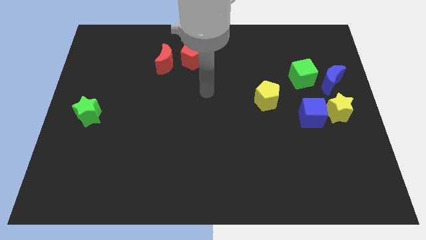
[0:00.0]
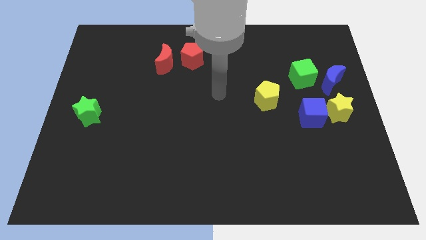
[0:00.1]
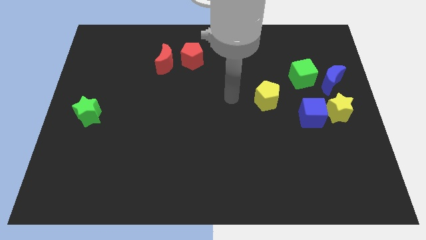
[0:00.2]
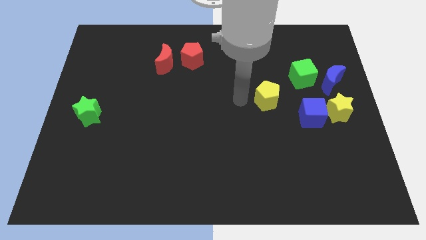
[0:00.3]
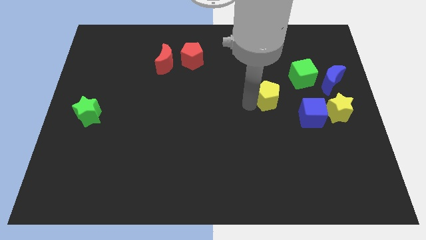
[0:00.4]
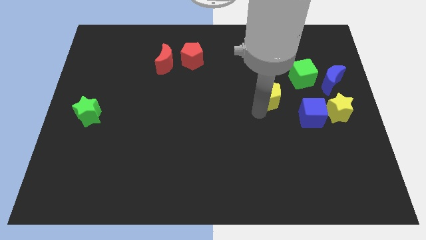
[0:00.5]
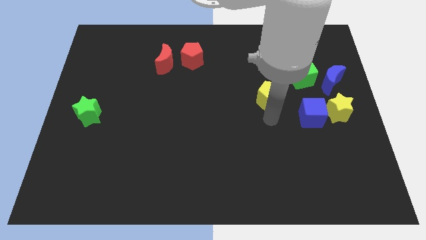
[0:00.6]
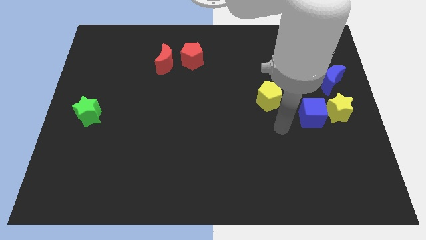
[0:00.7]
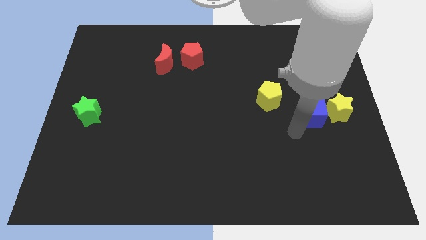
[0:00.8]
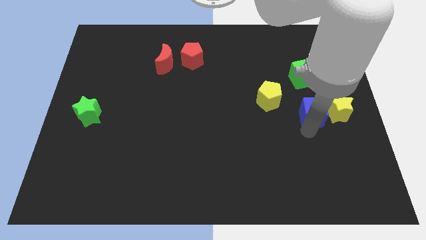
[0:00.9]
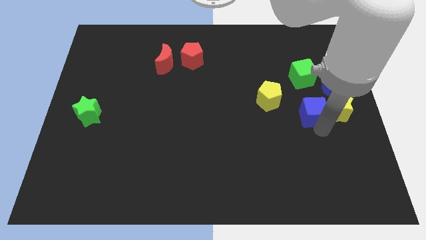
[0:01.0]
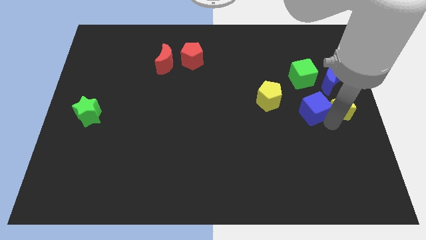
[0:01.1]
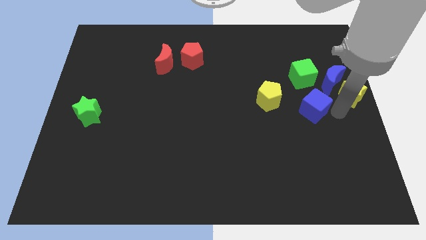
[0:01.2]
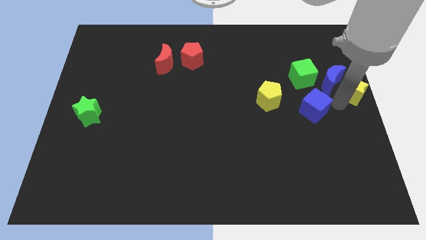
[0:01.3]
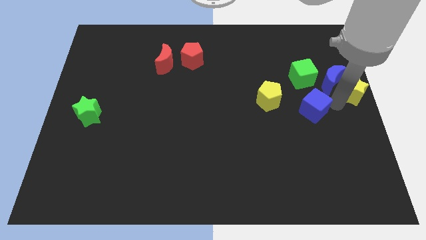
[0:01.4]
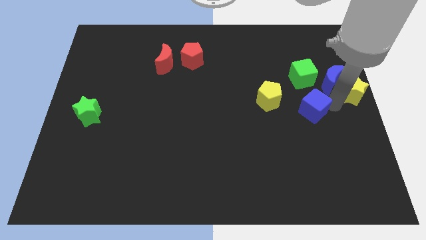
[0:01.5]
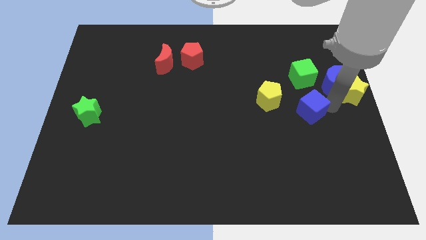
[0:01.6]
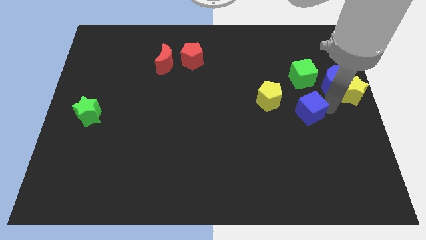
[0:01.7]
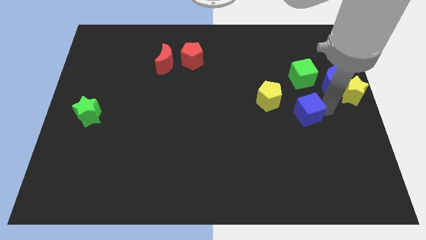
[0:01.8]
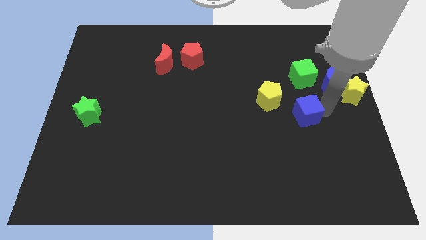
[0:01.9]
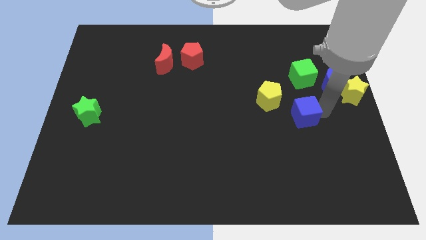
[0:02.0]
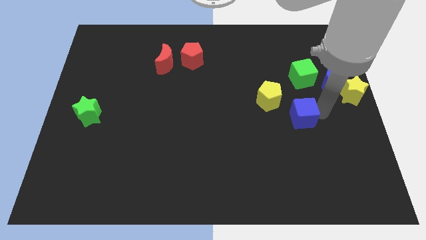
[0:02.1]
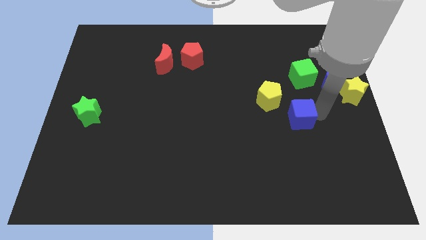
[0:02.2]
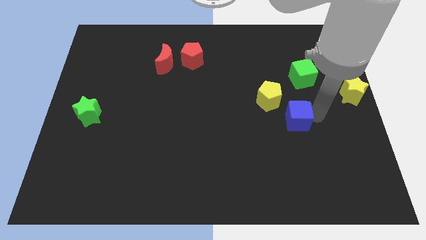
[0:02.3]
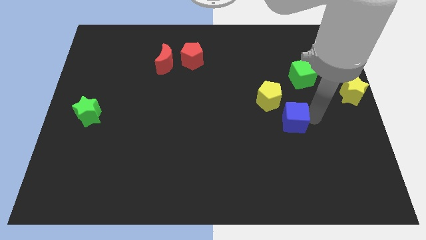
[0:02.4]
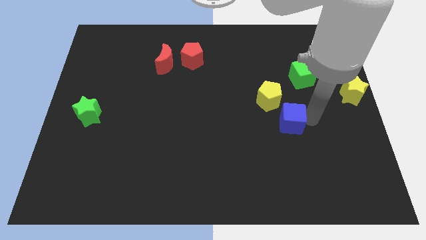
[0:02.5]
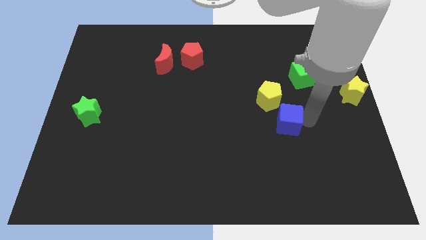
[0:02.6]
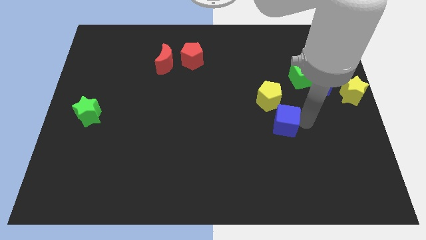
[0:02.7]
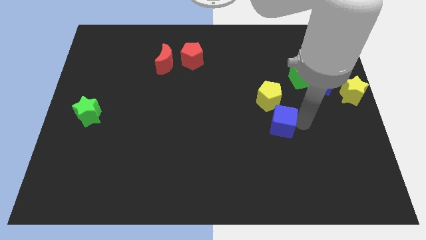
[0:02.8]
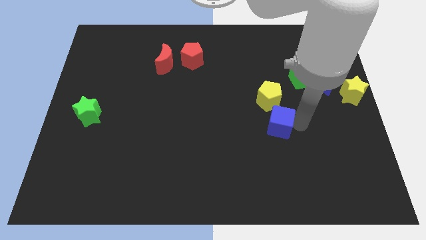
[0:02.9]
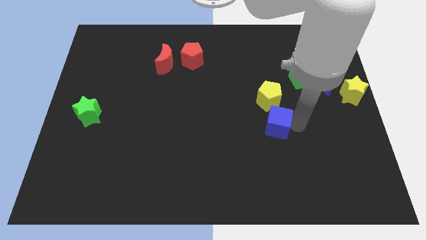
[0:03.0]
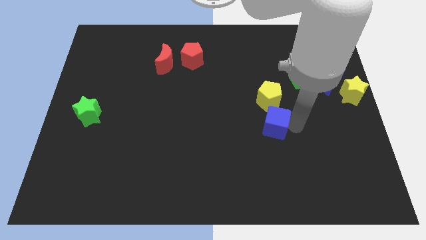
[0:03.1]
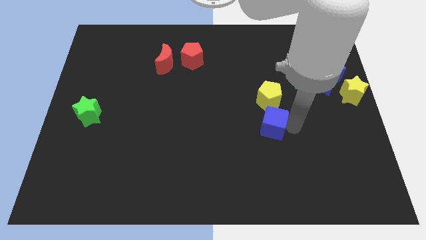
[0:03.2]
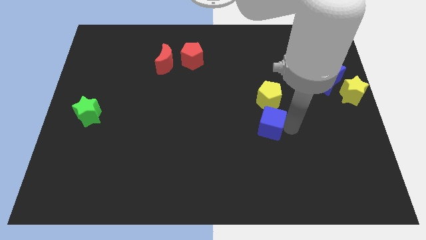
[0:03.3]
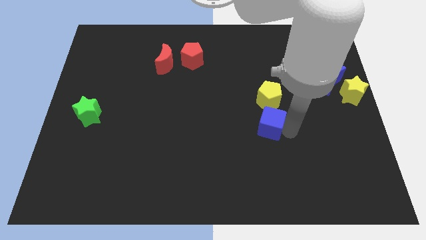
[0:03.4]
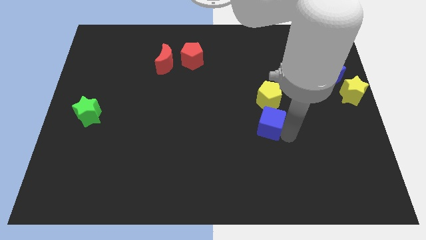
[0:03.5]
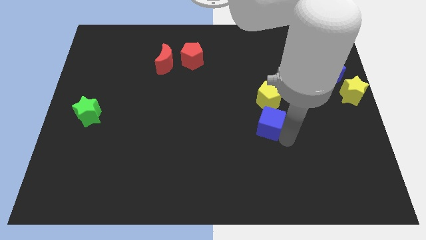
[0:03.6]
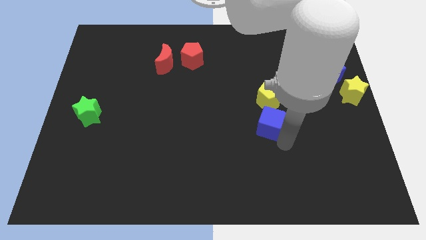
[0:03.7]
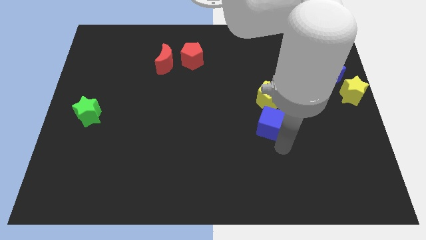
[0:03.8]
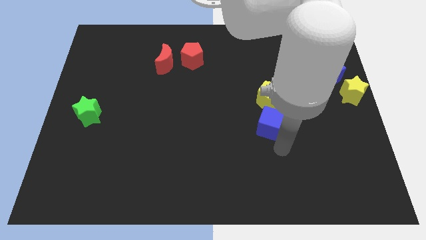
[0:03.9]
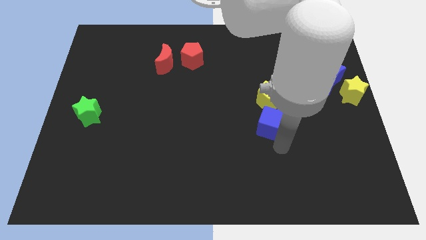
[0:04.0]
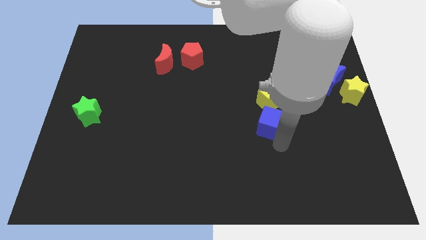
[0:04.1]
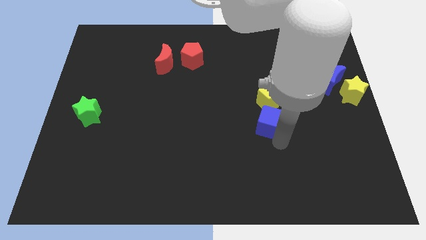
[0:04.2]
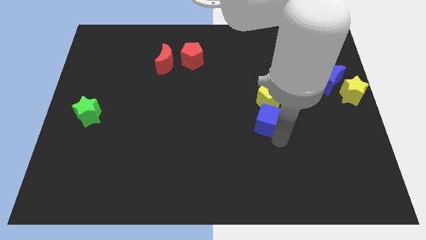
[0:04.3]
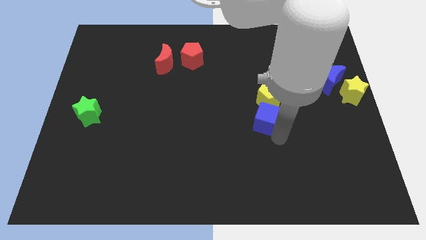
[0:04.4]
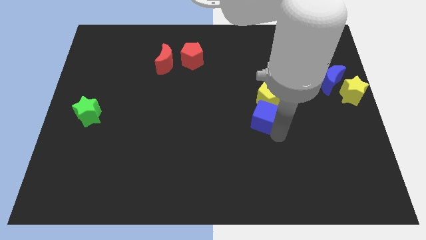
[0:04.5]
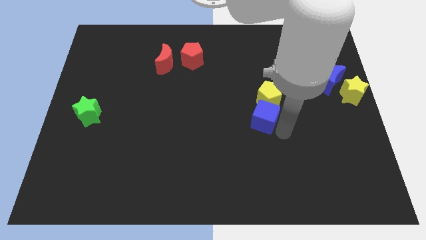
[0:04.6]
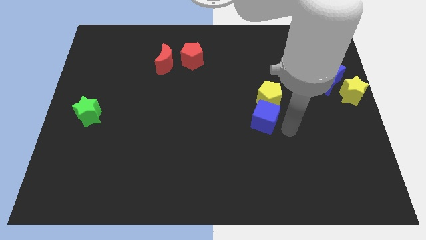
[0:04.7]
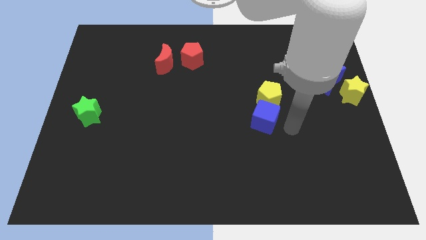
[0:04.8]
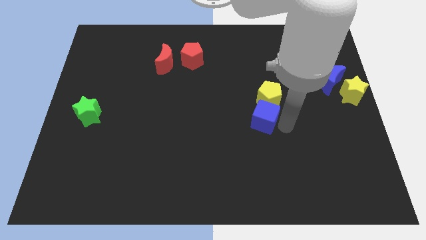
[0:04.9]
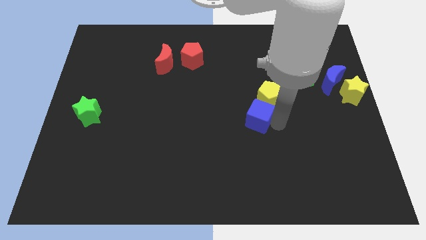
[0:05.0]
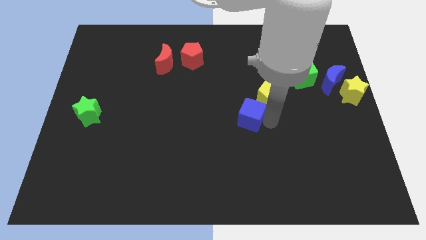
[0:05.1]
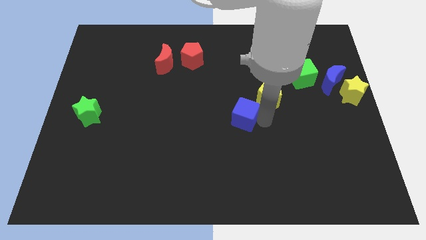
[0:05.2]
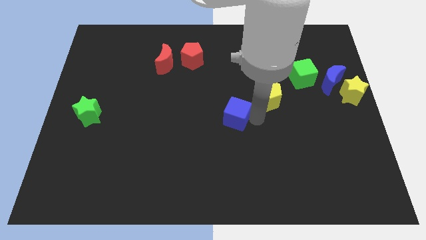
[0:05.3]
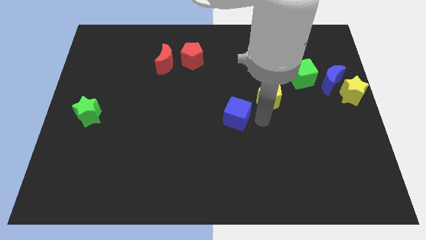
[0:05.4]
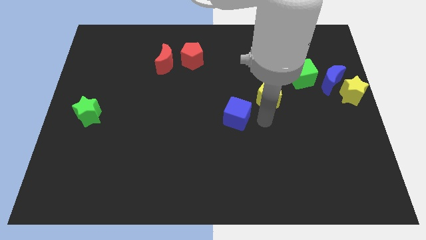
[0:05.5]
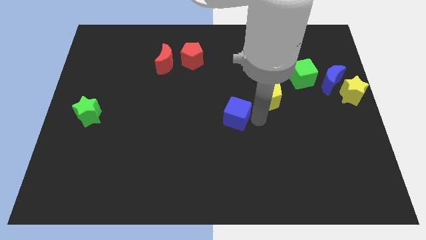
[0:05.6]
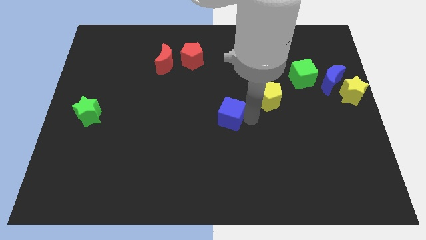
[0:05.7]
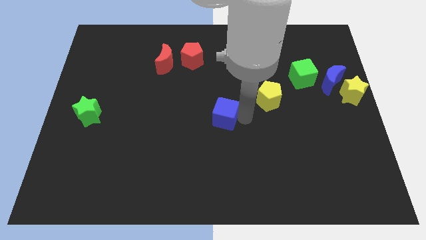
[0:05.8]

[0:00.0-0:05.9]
push the blue cube to the left

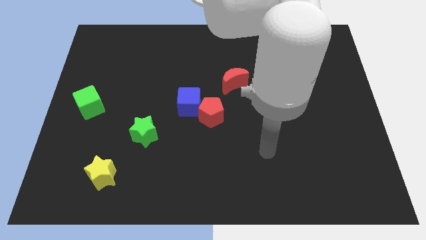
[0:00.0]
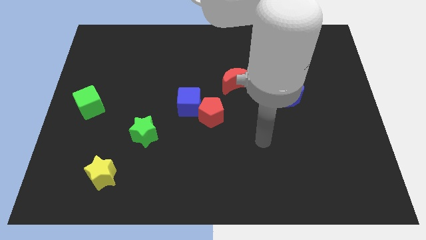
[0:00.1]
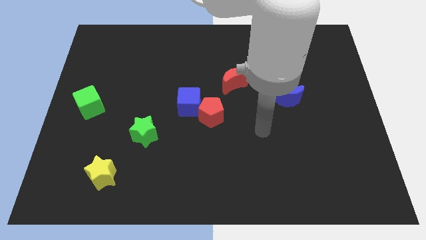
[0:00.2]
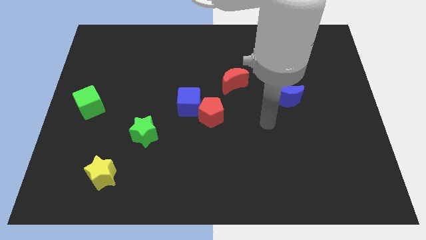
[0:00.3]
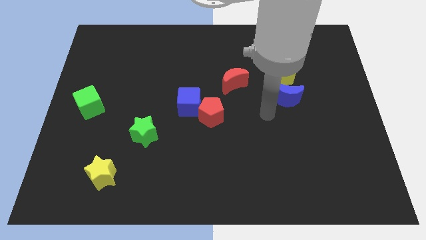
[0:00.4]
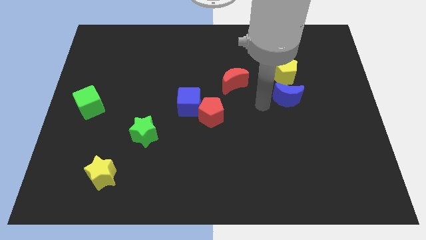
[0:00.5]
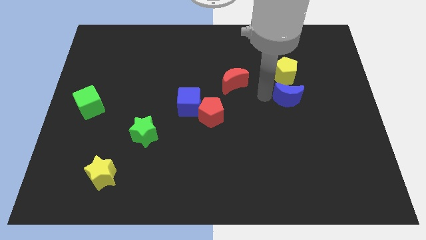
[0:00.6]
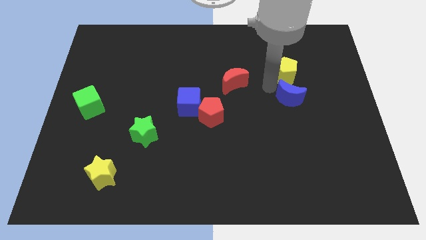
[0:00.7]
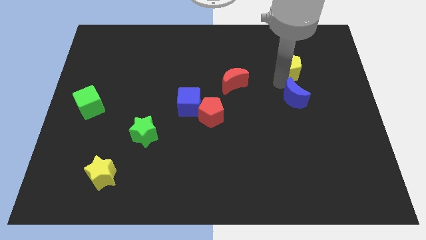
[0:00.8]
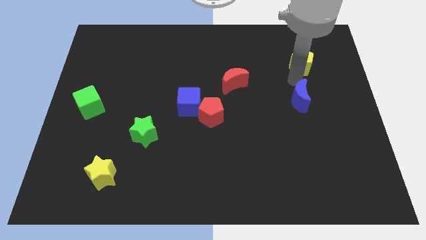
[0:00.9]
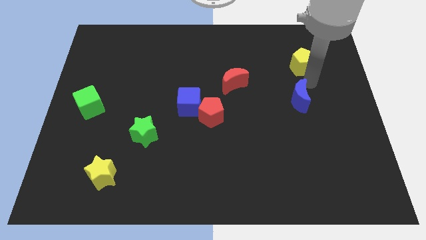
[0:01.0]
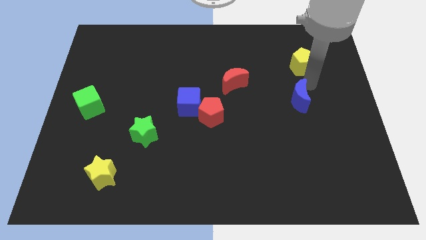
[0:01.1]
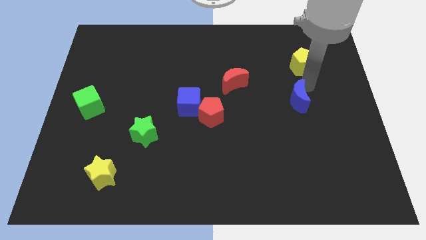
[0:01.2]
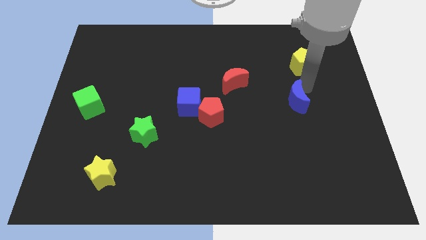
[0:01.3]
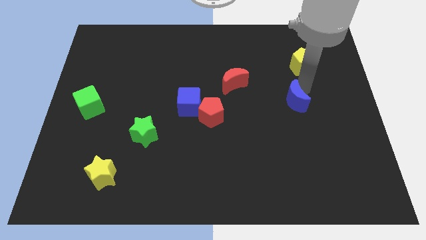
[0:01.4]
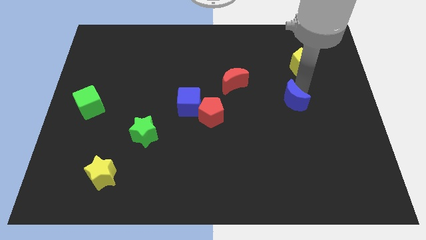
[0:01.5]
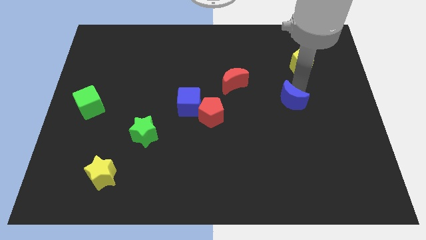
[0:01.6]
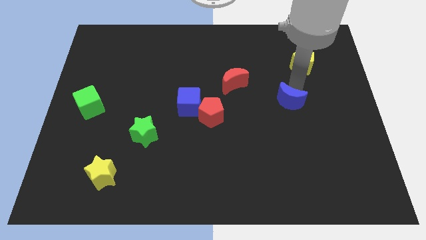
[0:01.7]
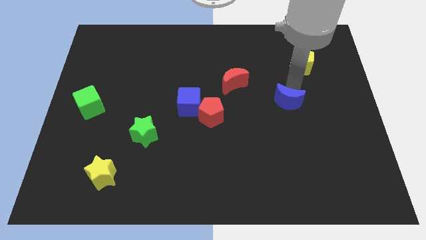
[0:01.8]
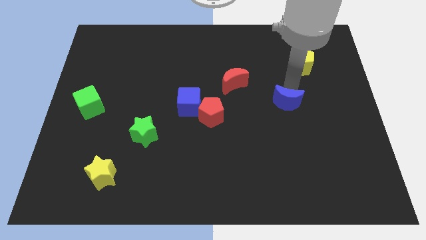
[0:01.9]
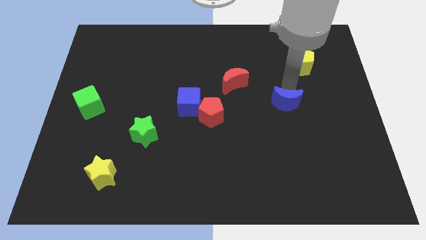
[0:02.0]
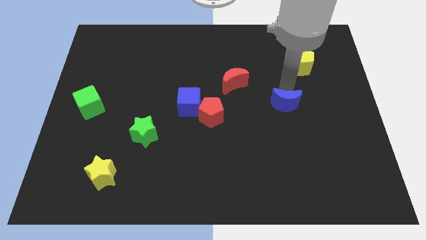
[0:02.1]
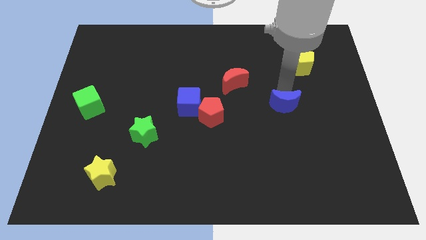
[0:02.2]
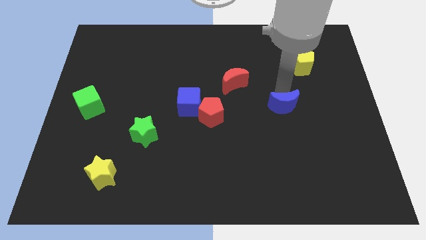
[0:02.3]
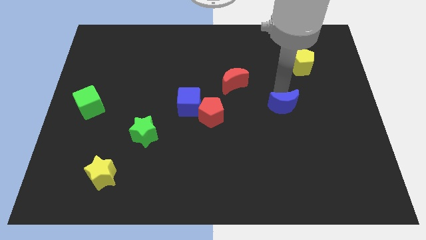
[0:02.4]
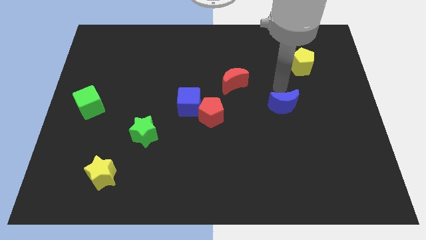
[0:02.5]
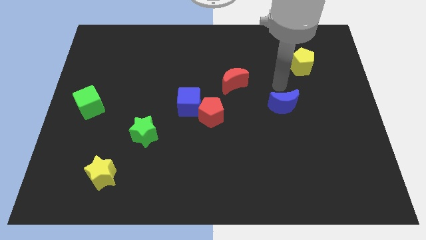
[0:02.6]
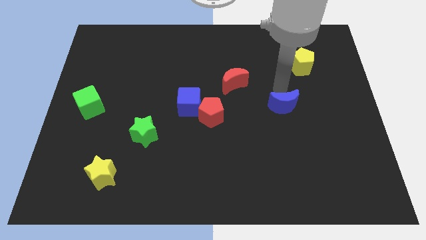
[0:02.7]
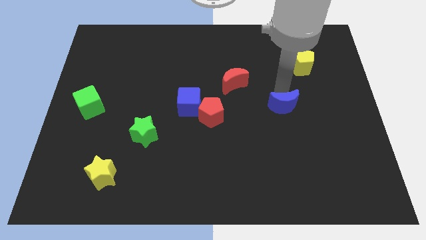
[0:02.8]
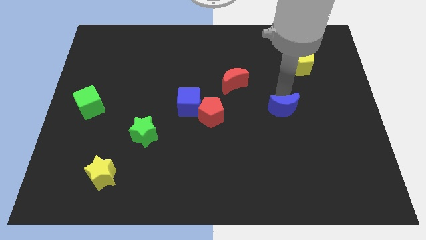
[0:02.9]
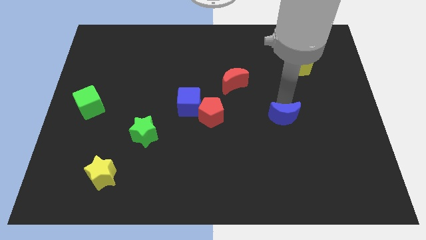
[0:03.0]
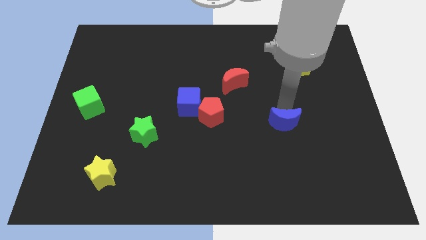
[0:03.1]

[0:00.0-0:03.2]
push the blue moon downwards a little
